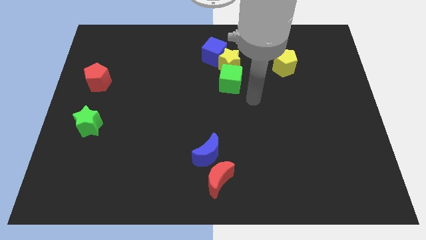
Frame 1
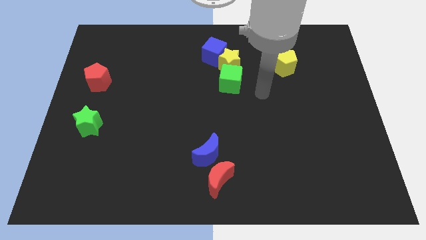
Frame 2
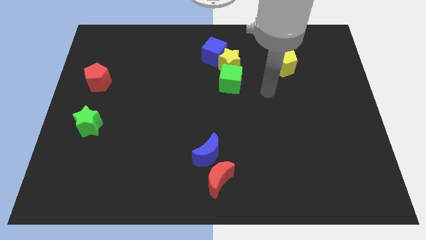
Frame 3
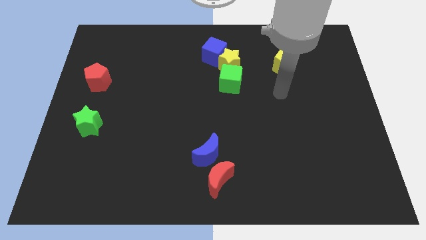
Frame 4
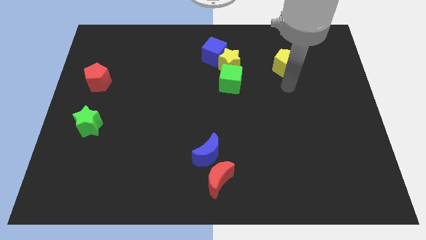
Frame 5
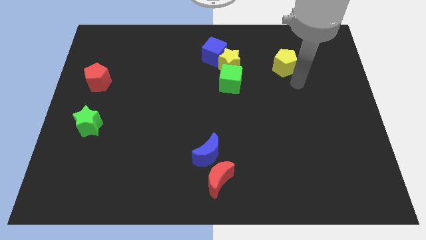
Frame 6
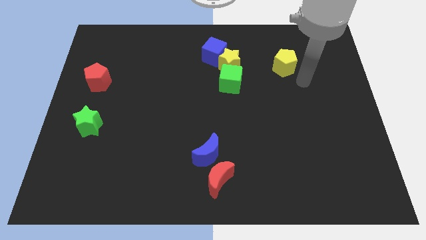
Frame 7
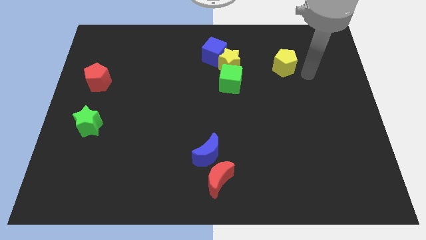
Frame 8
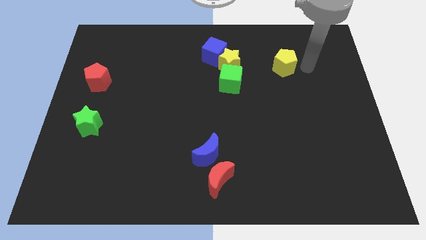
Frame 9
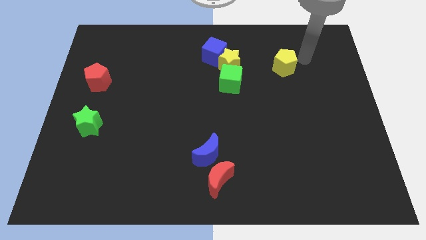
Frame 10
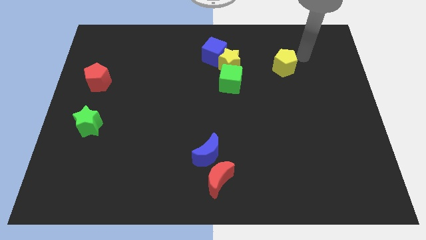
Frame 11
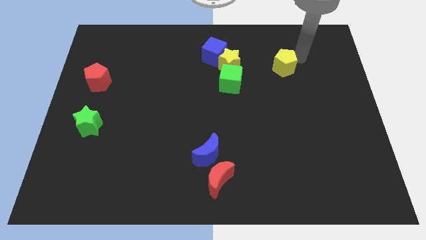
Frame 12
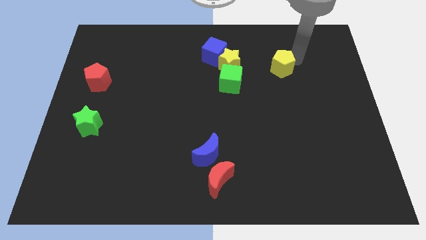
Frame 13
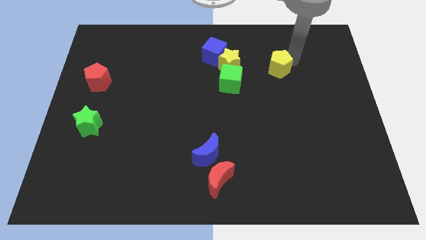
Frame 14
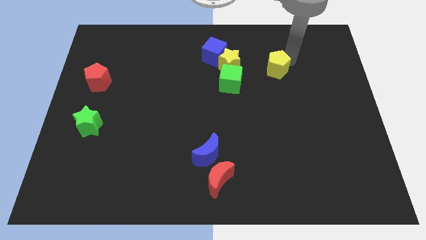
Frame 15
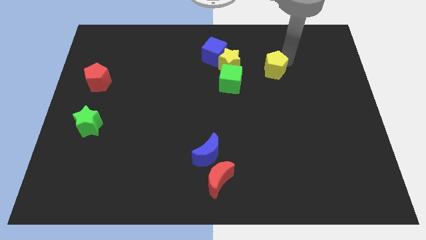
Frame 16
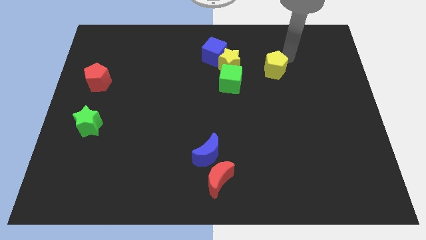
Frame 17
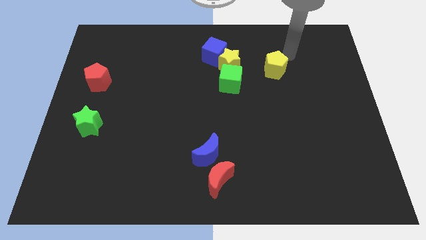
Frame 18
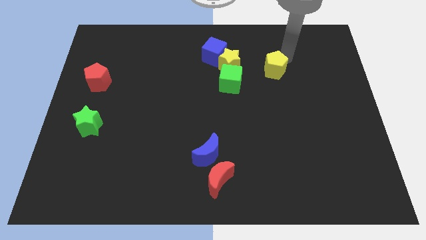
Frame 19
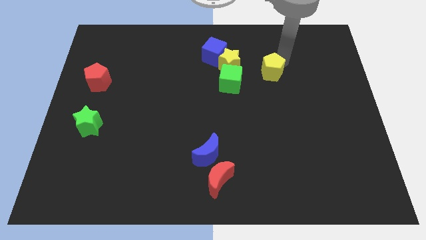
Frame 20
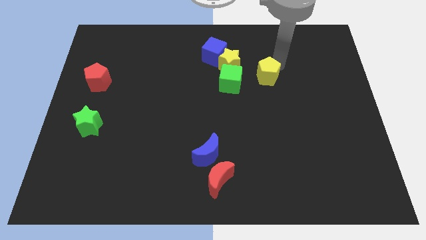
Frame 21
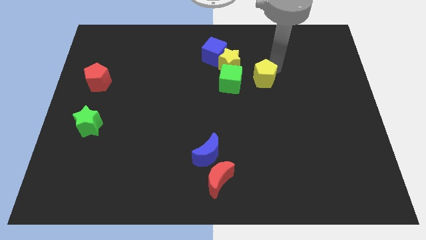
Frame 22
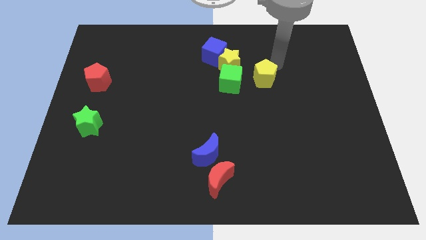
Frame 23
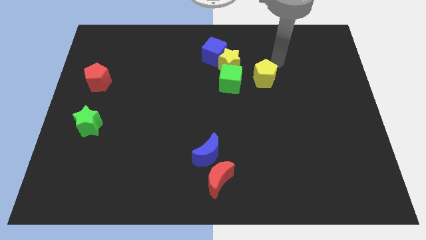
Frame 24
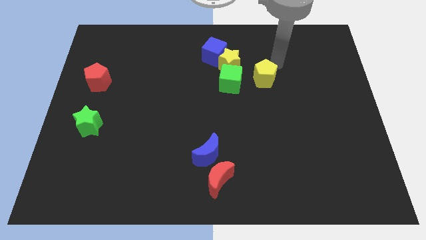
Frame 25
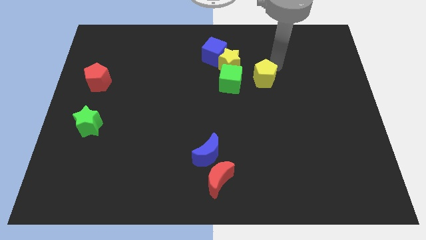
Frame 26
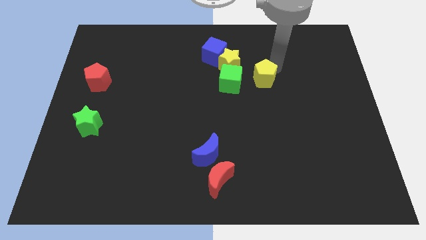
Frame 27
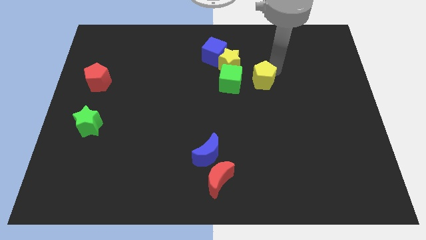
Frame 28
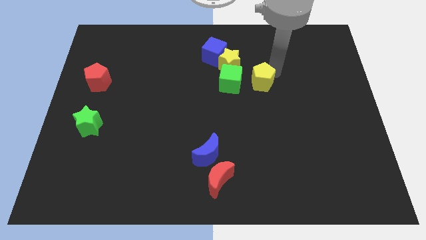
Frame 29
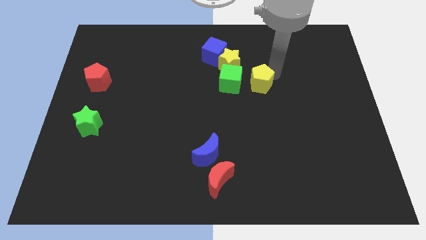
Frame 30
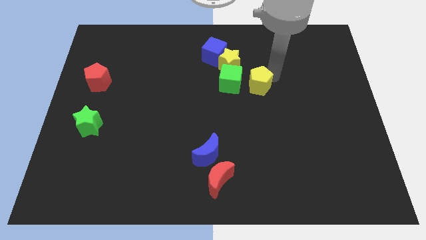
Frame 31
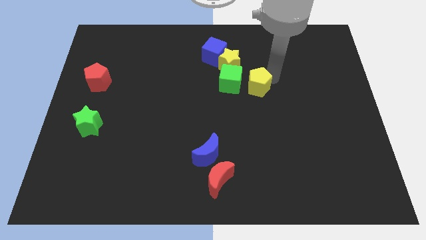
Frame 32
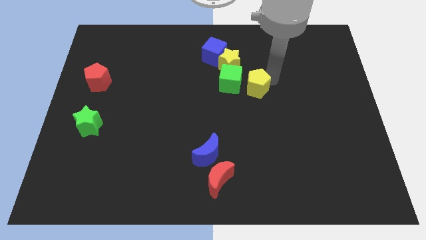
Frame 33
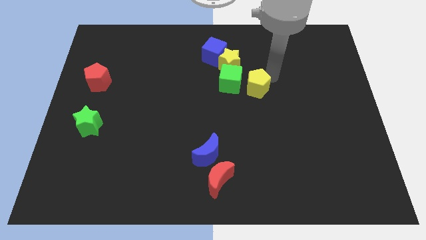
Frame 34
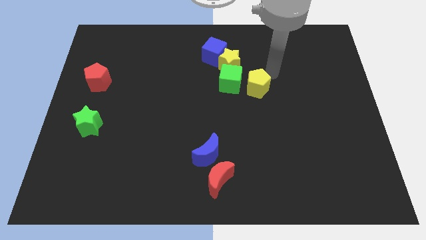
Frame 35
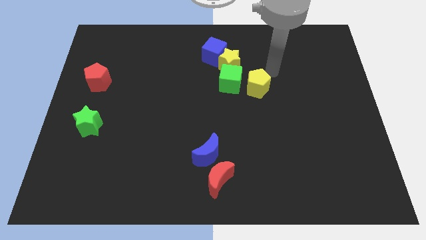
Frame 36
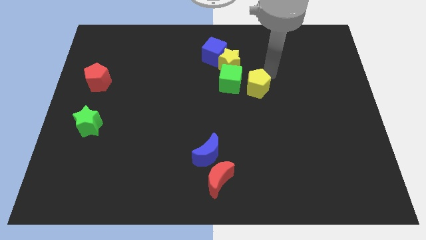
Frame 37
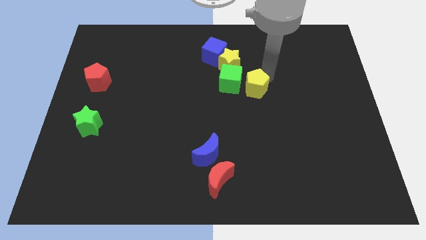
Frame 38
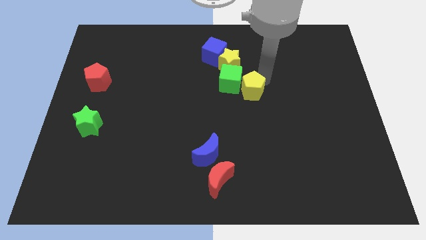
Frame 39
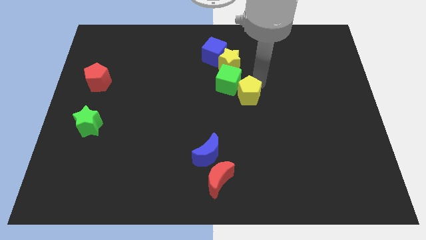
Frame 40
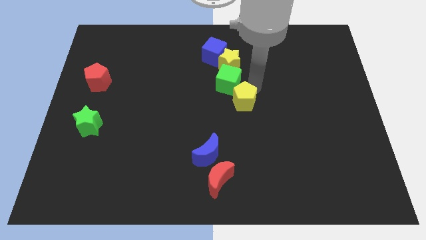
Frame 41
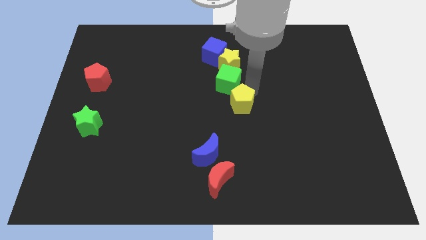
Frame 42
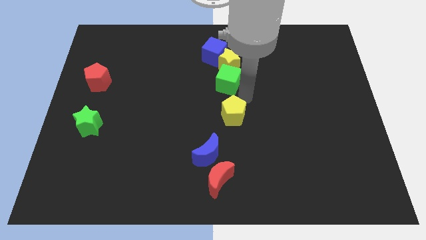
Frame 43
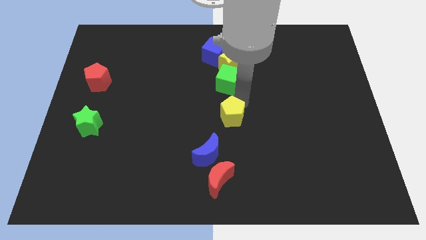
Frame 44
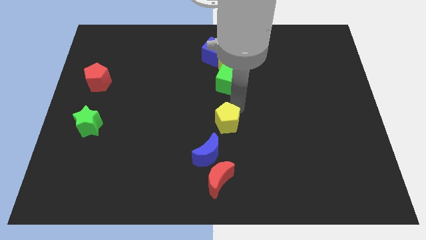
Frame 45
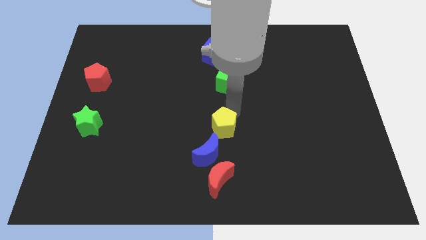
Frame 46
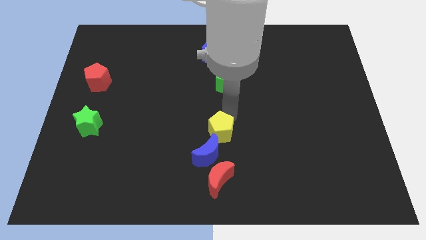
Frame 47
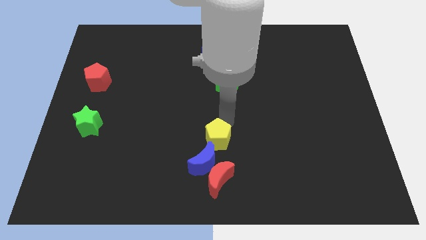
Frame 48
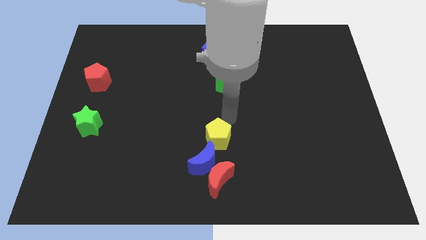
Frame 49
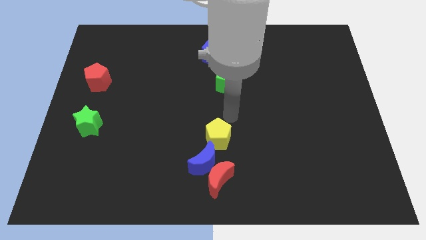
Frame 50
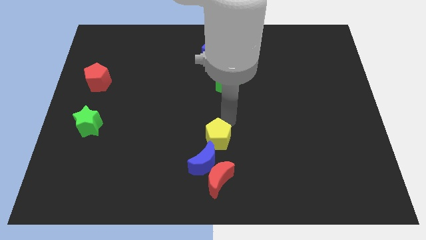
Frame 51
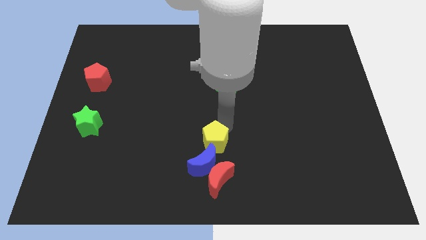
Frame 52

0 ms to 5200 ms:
put the yellow pentagon to the blue moon

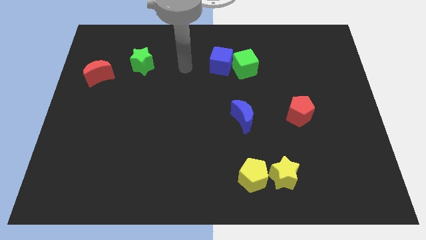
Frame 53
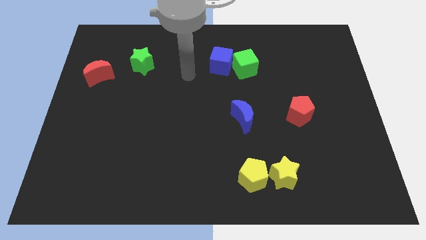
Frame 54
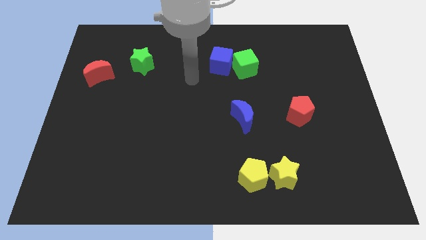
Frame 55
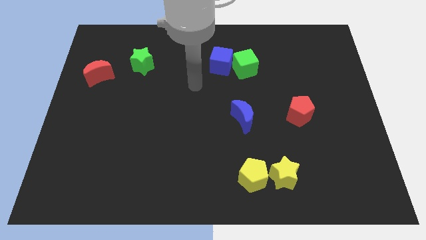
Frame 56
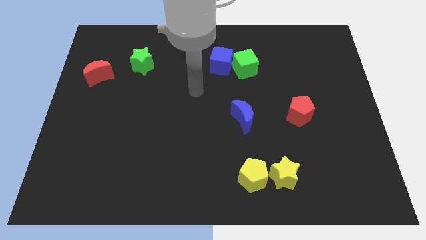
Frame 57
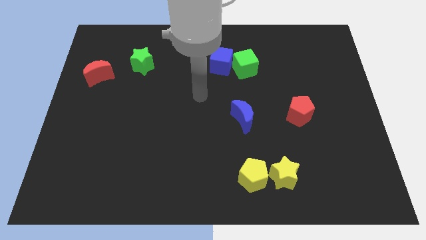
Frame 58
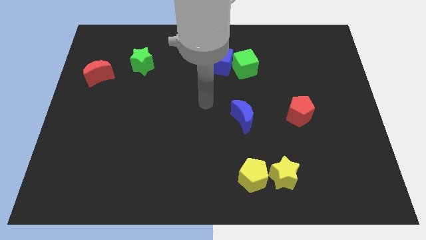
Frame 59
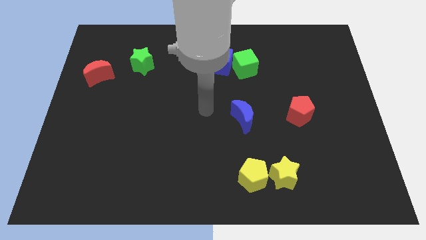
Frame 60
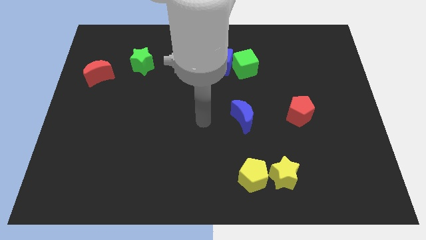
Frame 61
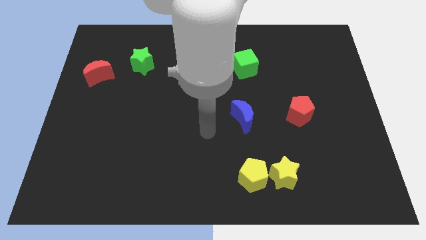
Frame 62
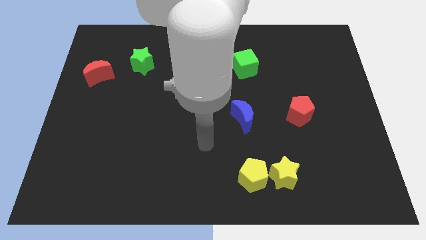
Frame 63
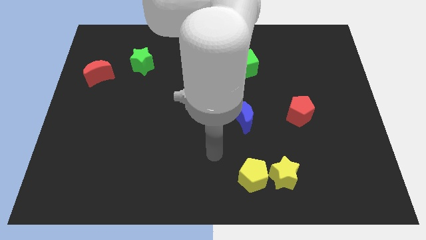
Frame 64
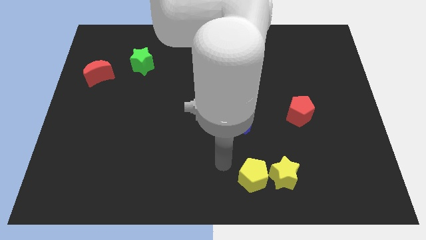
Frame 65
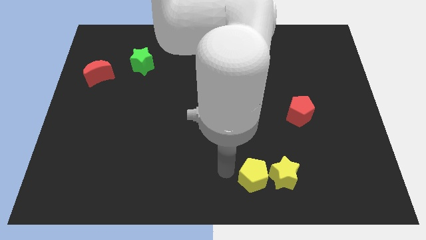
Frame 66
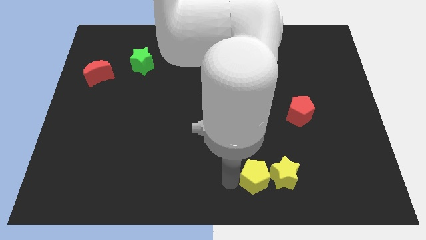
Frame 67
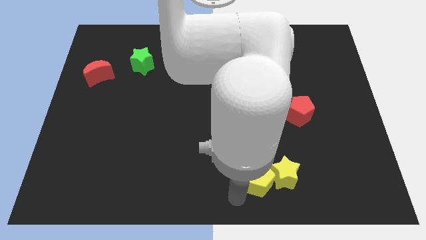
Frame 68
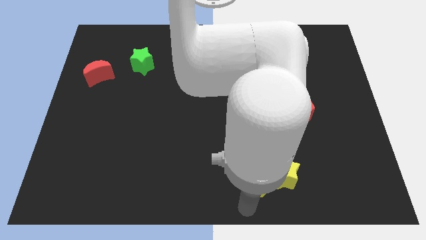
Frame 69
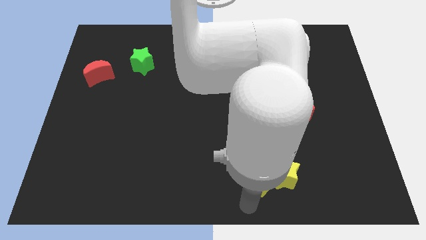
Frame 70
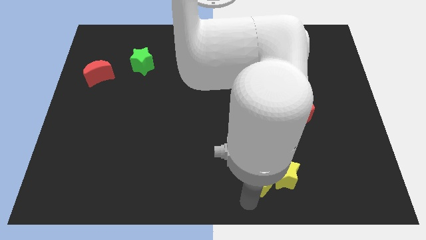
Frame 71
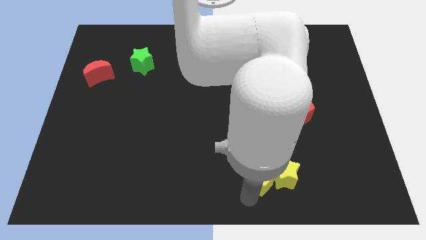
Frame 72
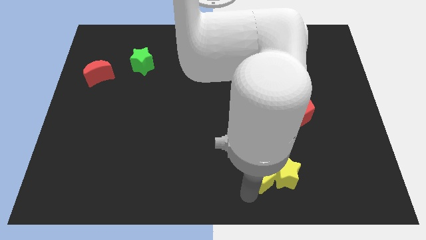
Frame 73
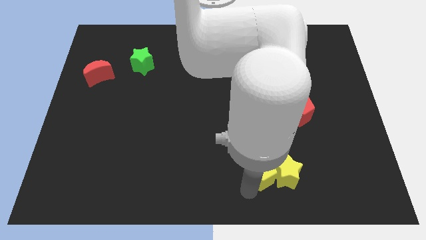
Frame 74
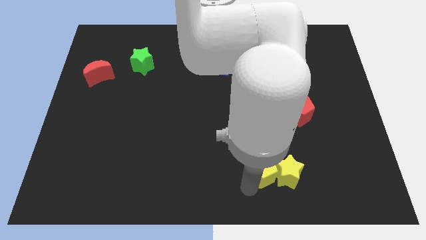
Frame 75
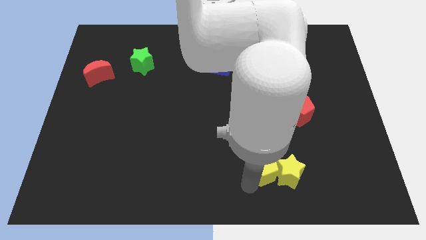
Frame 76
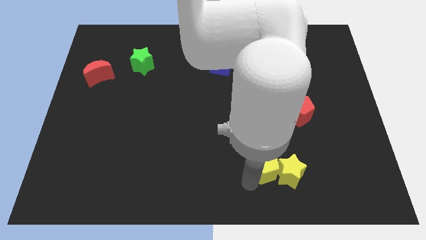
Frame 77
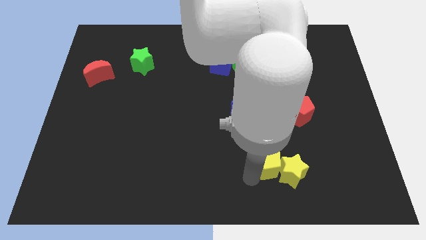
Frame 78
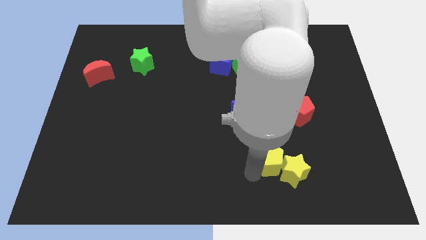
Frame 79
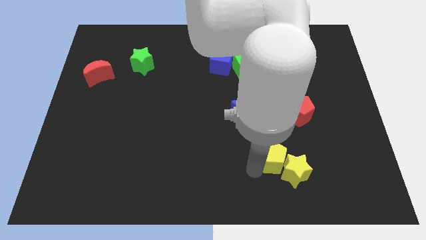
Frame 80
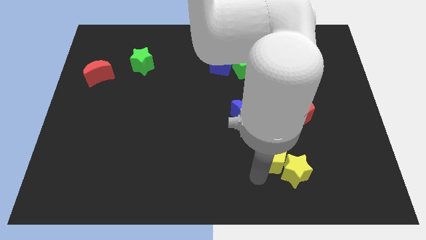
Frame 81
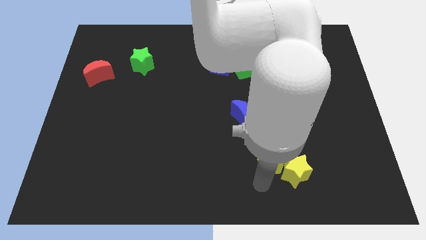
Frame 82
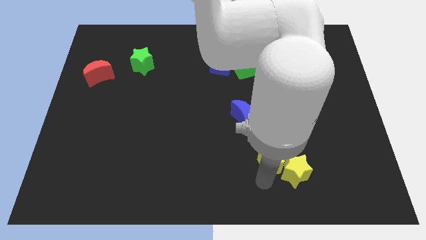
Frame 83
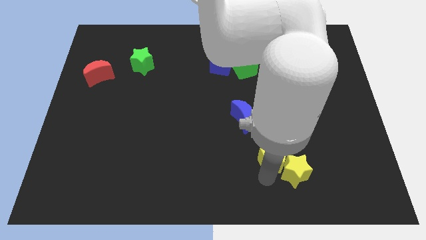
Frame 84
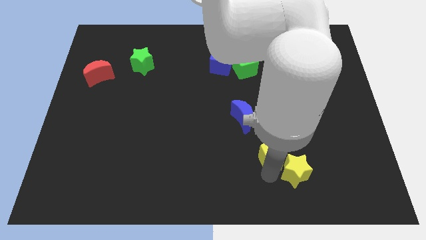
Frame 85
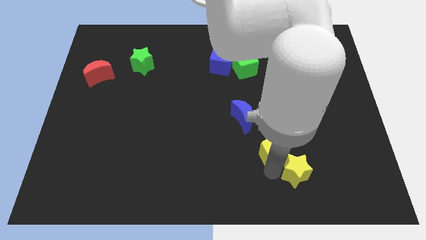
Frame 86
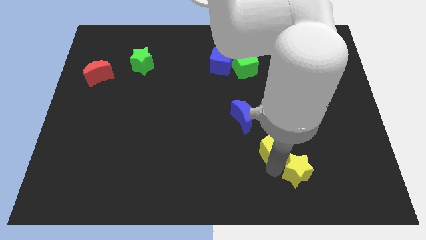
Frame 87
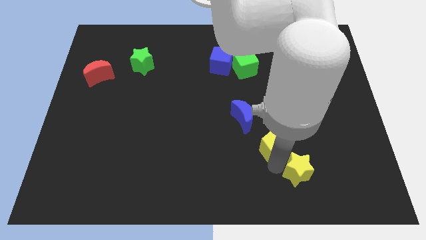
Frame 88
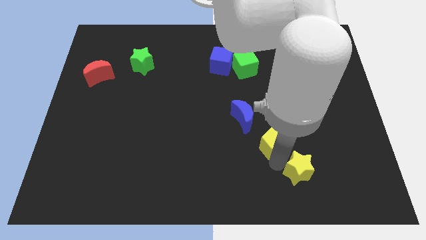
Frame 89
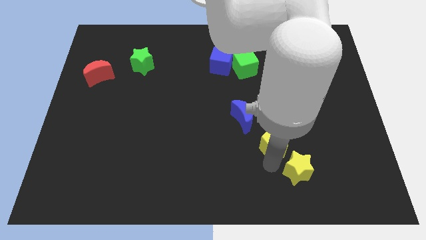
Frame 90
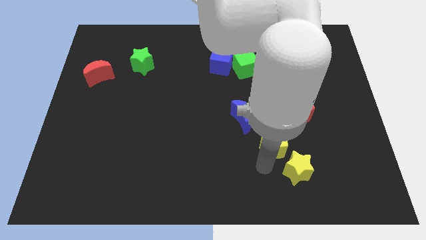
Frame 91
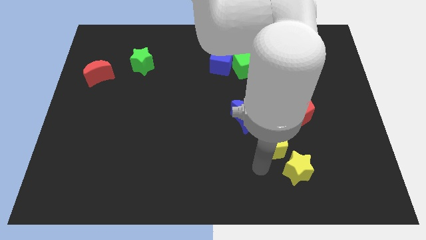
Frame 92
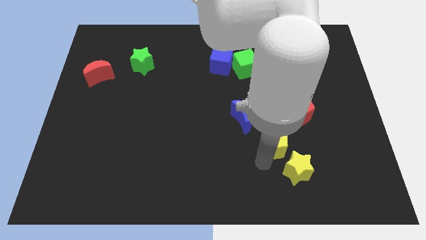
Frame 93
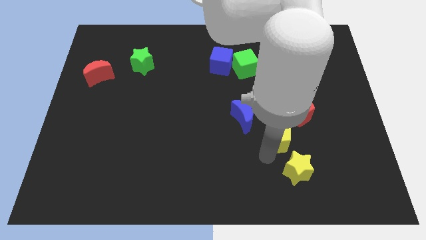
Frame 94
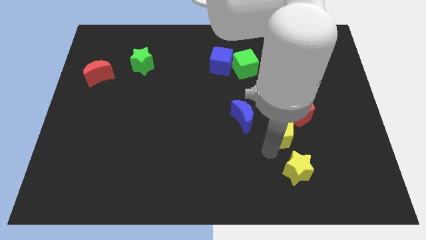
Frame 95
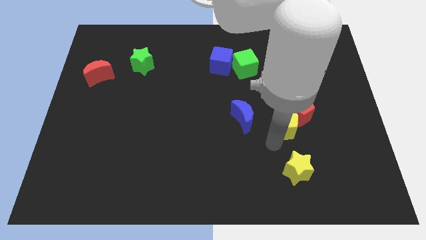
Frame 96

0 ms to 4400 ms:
slide the yellow pentagon towards the red pentagon
